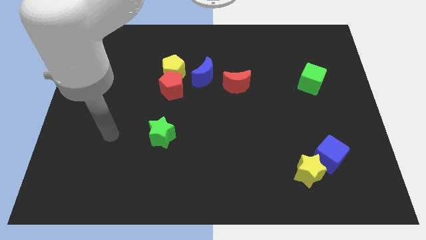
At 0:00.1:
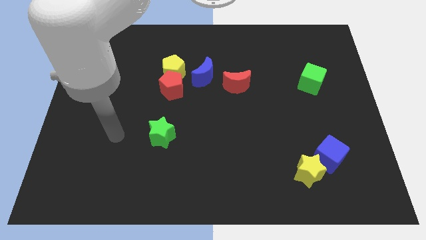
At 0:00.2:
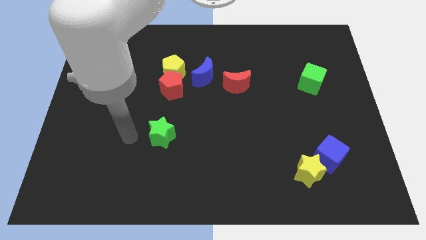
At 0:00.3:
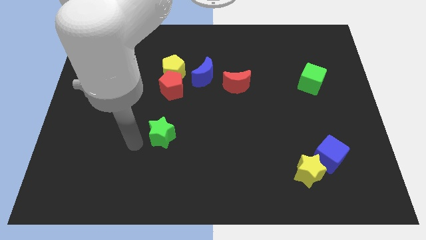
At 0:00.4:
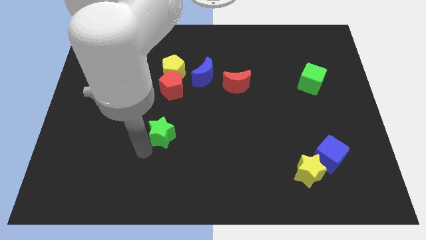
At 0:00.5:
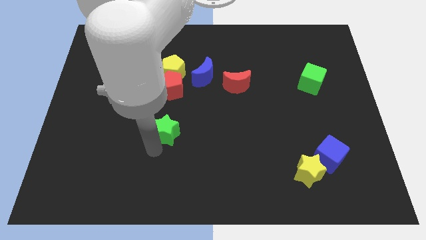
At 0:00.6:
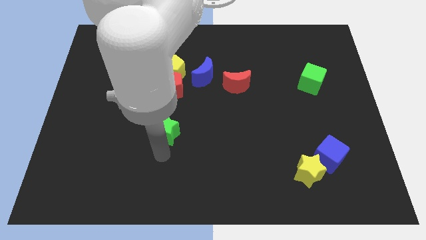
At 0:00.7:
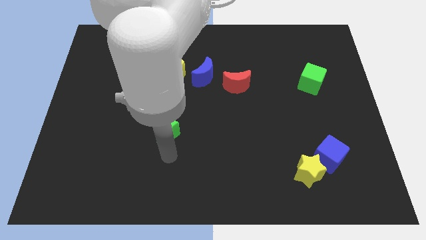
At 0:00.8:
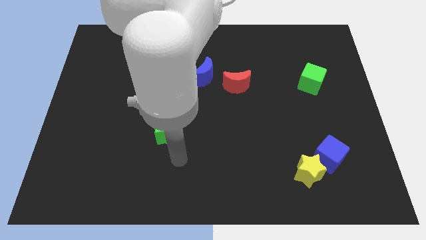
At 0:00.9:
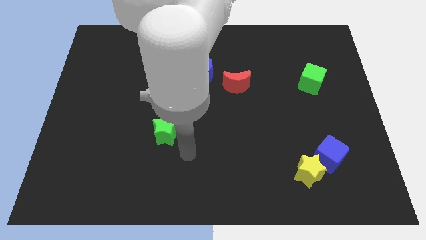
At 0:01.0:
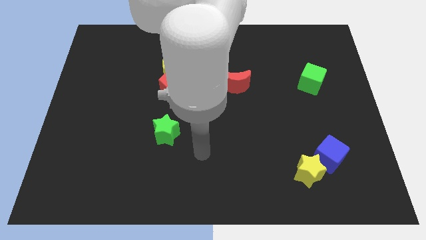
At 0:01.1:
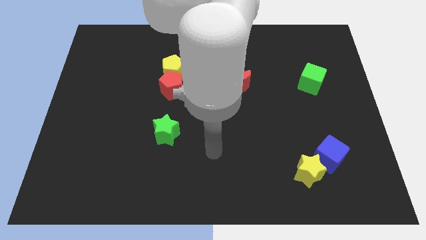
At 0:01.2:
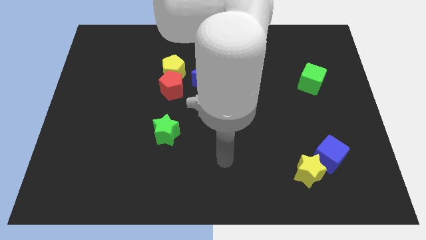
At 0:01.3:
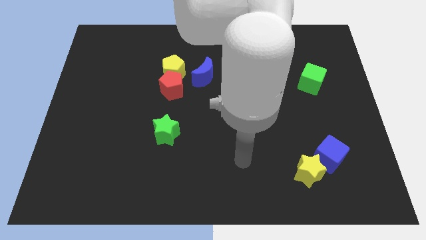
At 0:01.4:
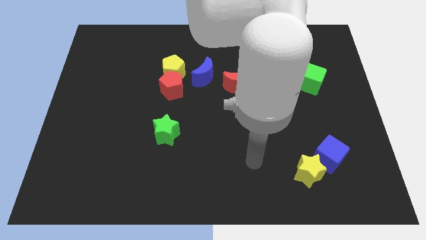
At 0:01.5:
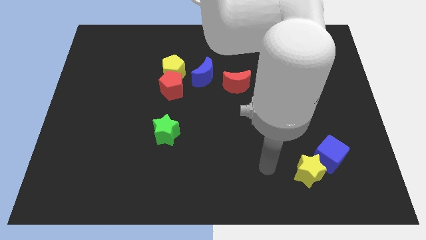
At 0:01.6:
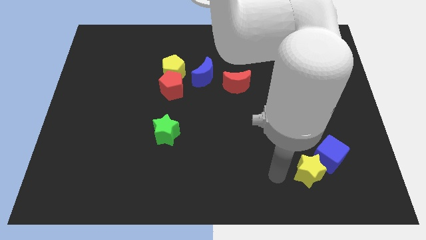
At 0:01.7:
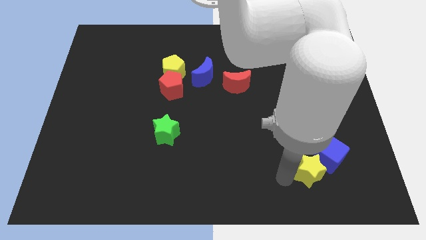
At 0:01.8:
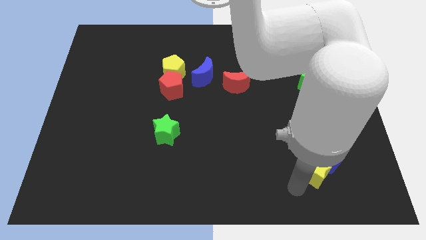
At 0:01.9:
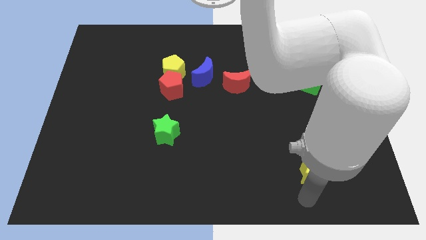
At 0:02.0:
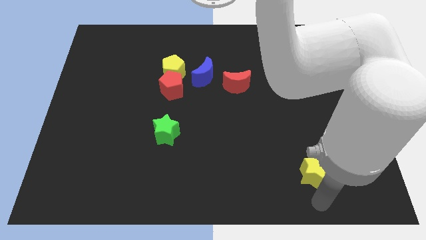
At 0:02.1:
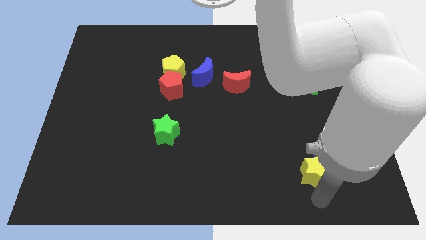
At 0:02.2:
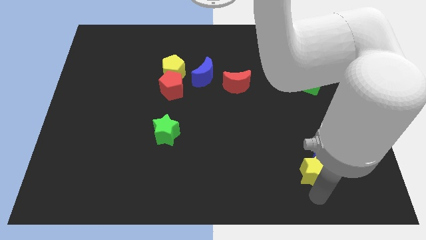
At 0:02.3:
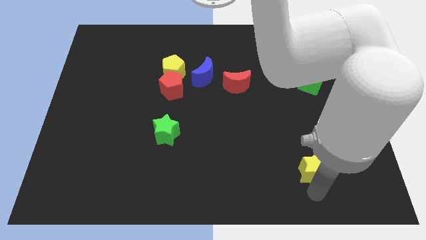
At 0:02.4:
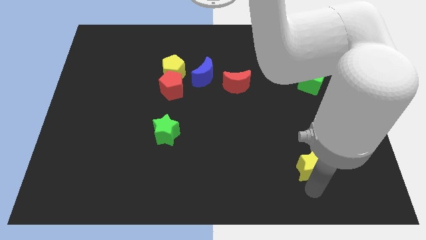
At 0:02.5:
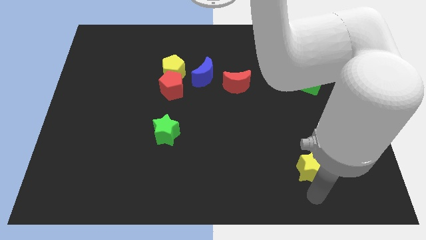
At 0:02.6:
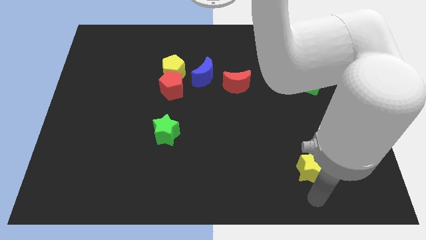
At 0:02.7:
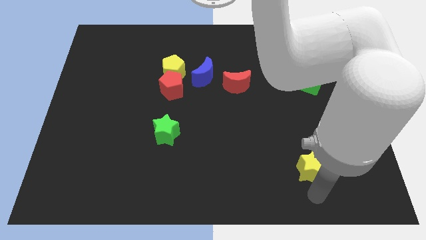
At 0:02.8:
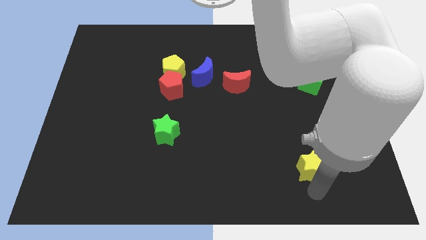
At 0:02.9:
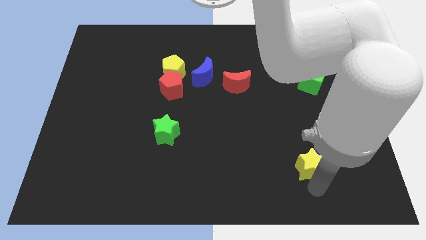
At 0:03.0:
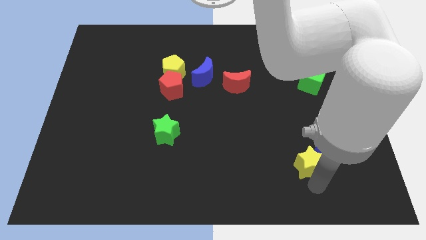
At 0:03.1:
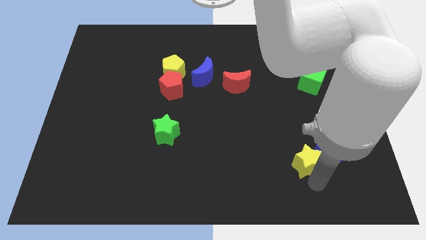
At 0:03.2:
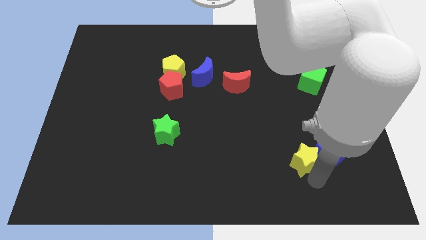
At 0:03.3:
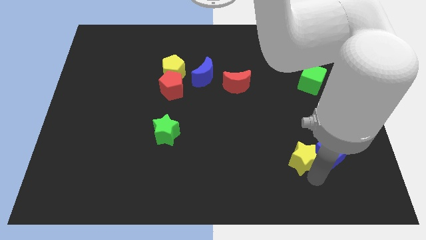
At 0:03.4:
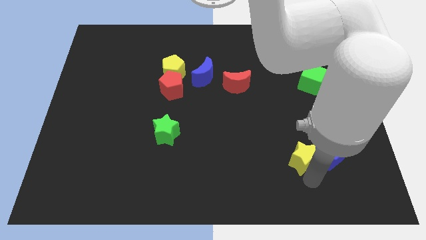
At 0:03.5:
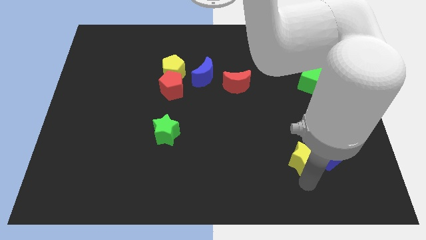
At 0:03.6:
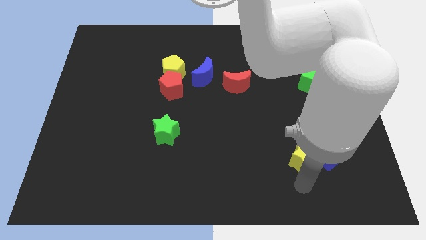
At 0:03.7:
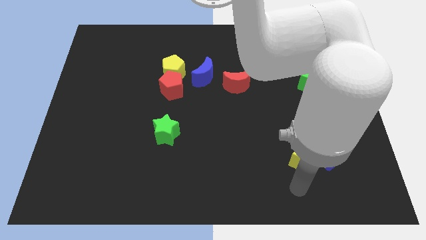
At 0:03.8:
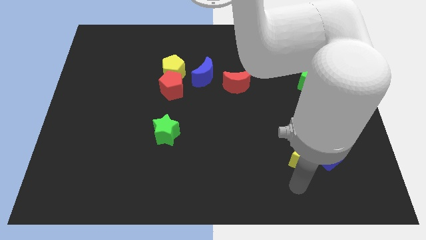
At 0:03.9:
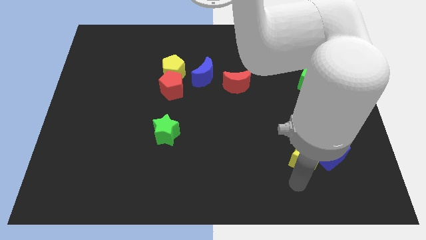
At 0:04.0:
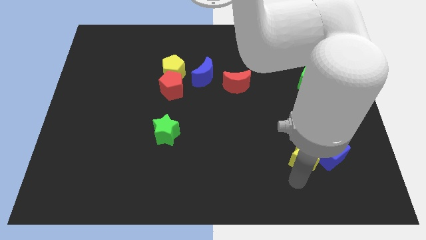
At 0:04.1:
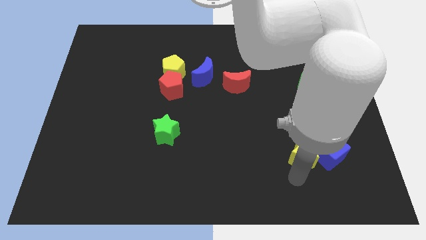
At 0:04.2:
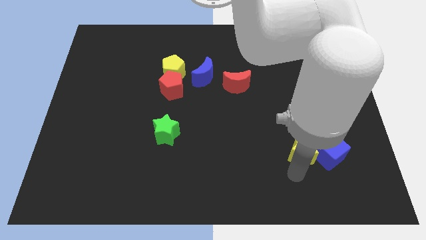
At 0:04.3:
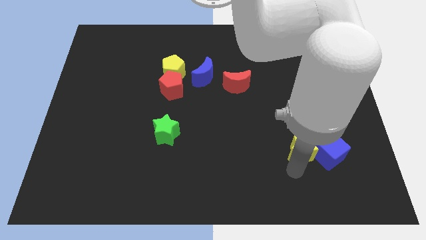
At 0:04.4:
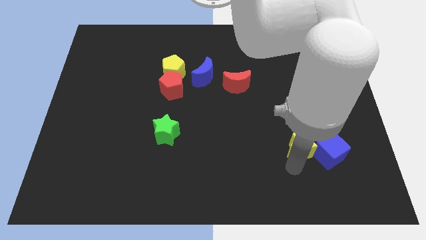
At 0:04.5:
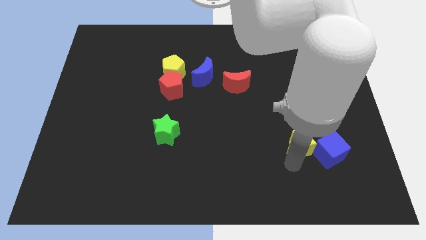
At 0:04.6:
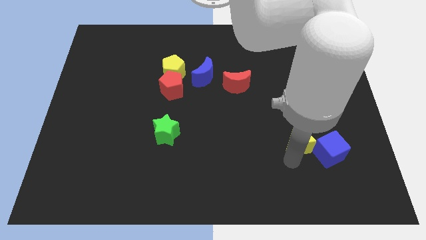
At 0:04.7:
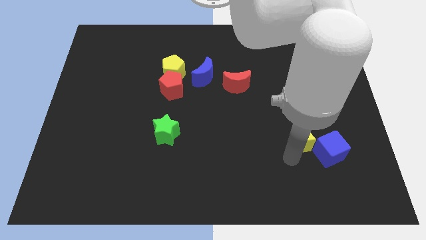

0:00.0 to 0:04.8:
move the yellow star upwards somewhat

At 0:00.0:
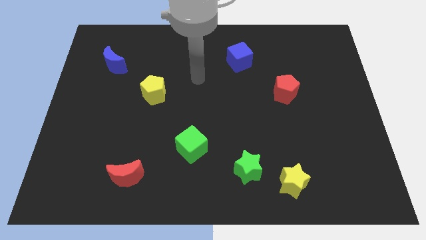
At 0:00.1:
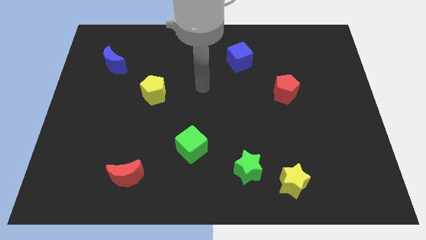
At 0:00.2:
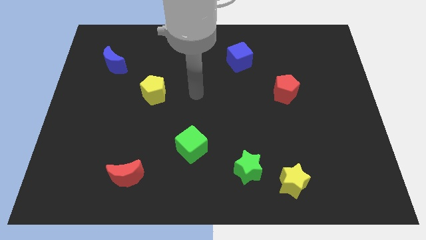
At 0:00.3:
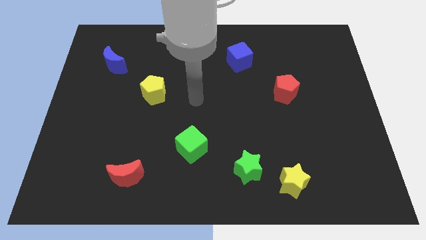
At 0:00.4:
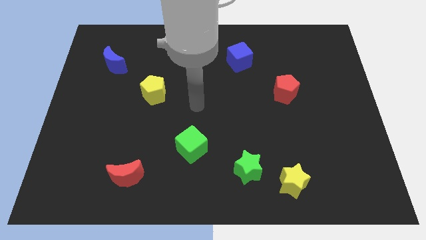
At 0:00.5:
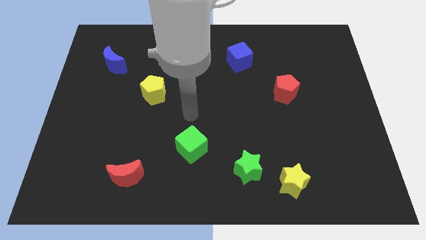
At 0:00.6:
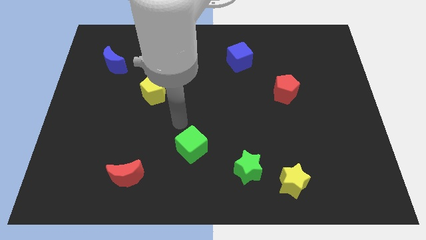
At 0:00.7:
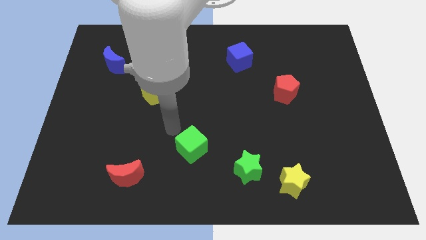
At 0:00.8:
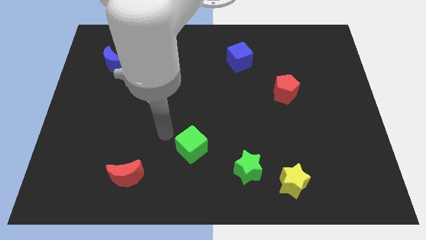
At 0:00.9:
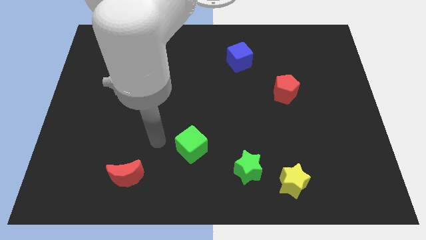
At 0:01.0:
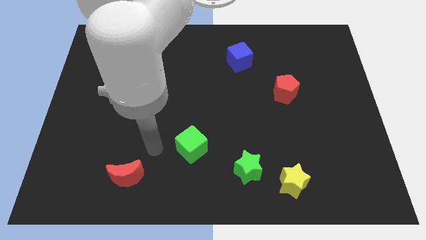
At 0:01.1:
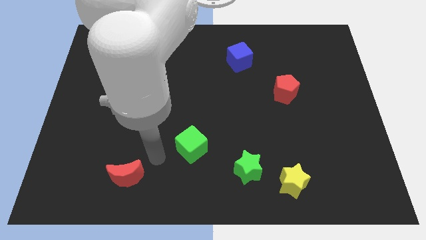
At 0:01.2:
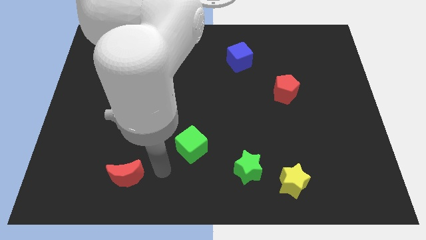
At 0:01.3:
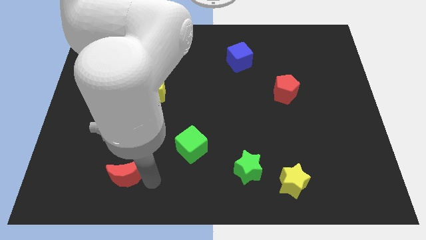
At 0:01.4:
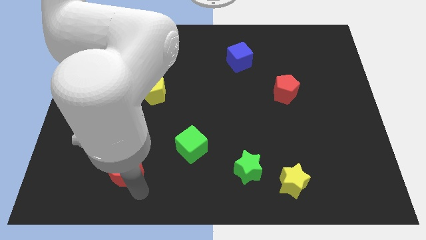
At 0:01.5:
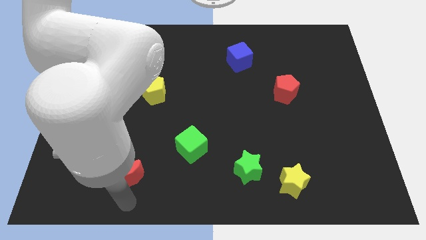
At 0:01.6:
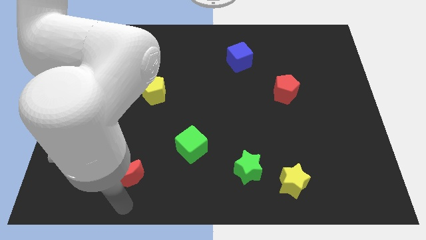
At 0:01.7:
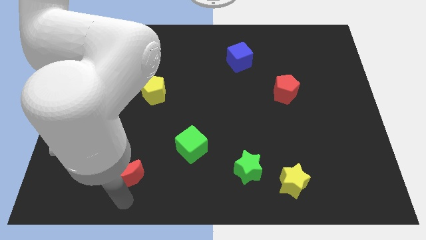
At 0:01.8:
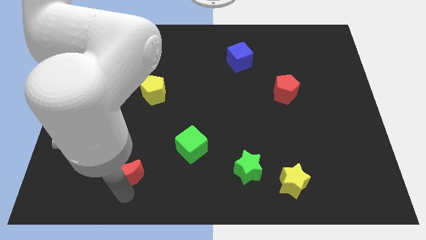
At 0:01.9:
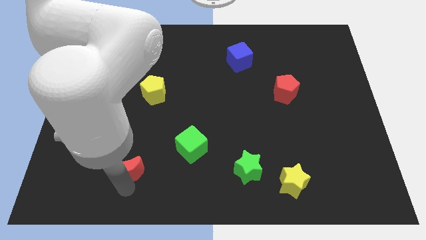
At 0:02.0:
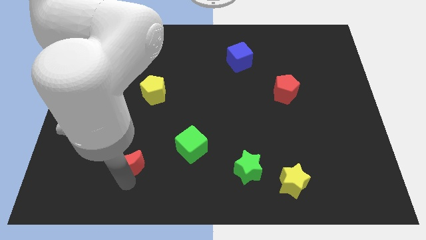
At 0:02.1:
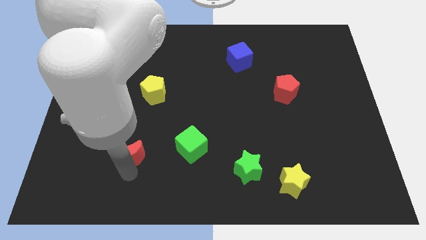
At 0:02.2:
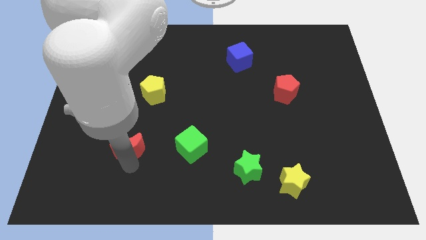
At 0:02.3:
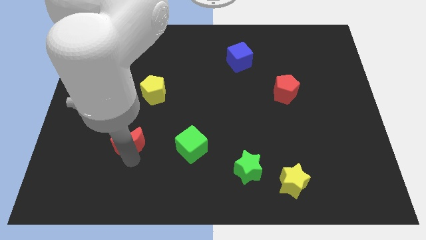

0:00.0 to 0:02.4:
slightly slide the red moon up

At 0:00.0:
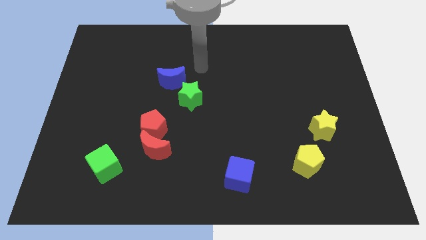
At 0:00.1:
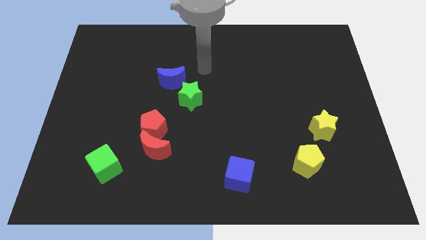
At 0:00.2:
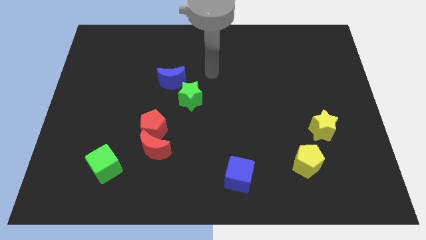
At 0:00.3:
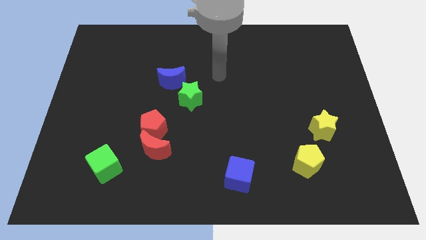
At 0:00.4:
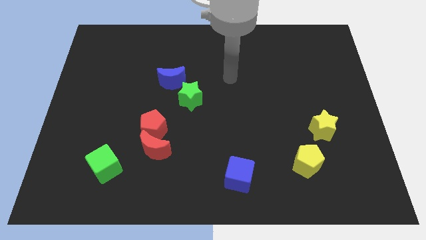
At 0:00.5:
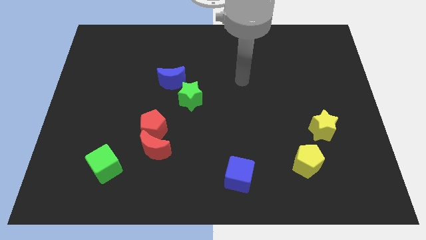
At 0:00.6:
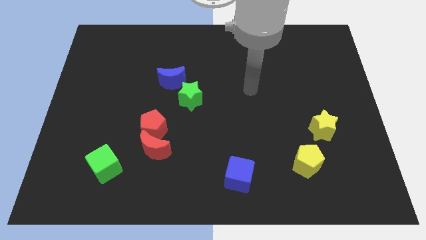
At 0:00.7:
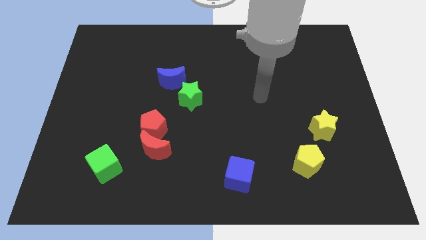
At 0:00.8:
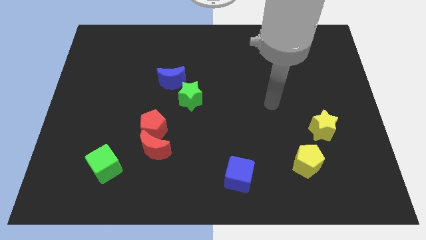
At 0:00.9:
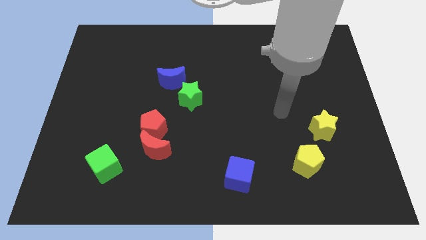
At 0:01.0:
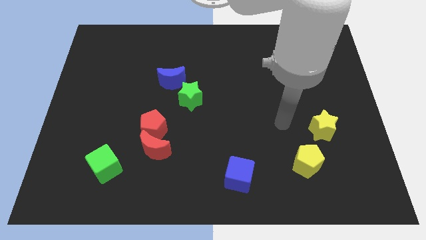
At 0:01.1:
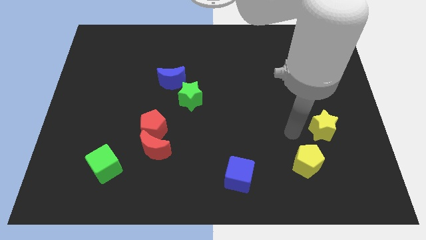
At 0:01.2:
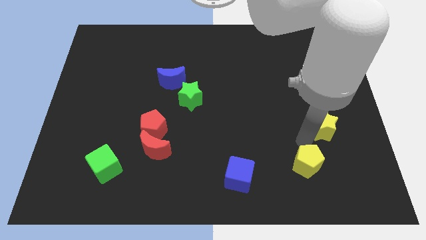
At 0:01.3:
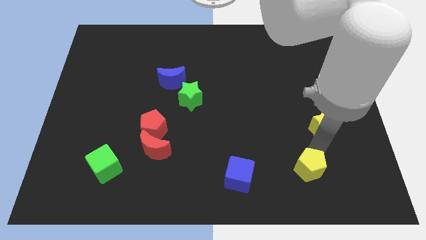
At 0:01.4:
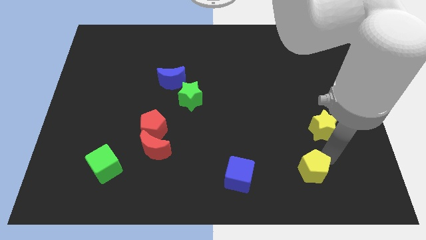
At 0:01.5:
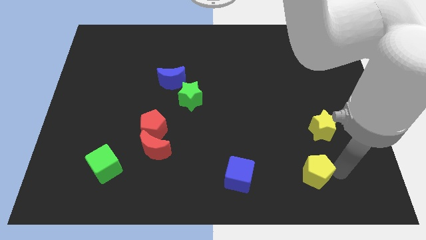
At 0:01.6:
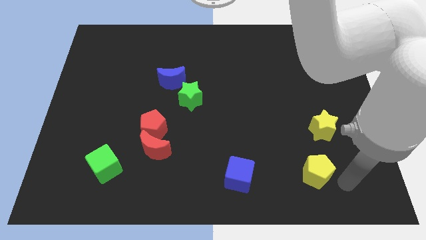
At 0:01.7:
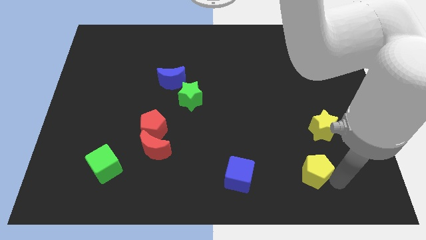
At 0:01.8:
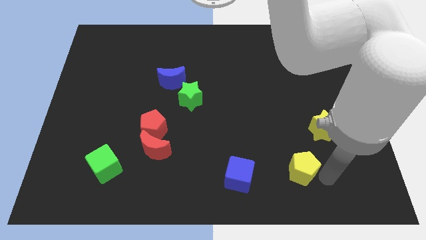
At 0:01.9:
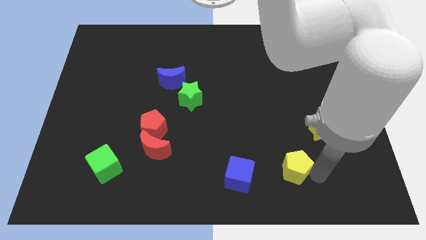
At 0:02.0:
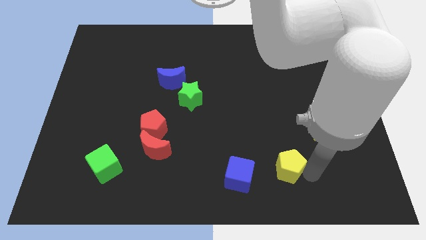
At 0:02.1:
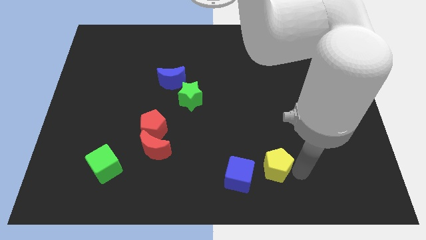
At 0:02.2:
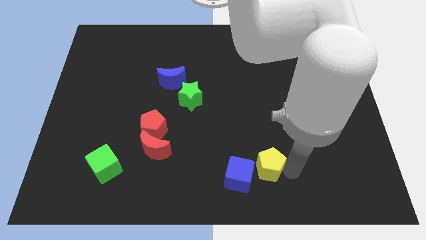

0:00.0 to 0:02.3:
slightly slide the yellow pentagon left
